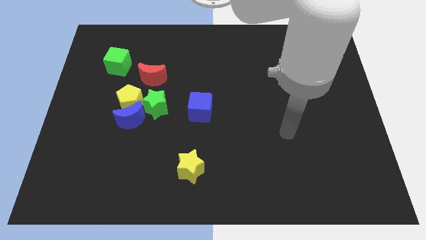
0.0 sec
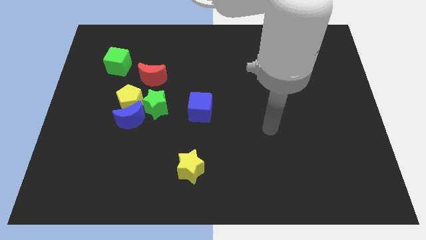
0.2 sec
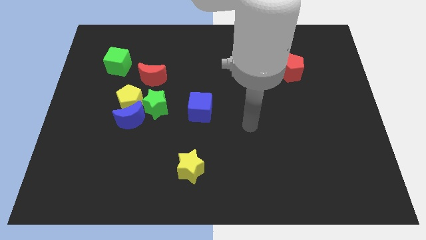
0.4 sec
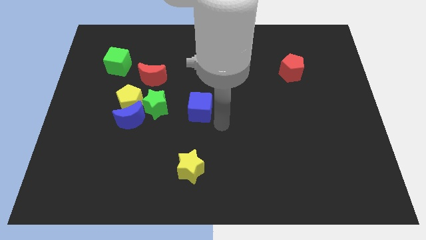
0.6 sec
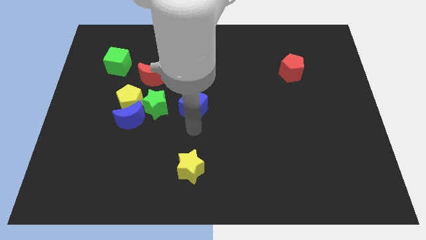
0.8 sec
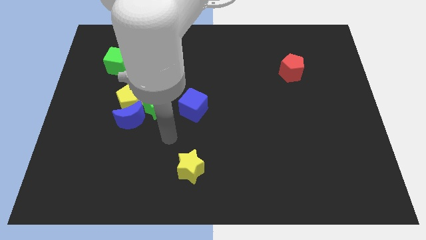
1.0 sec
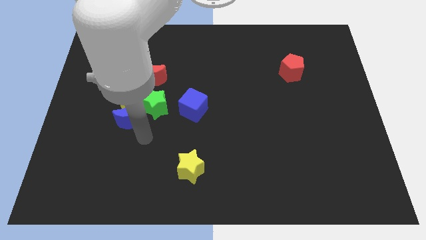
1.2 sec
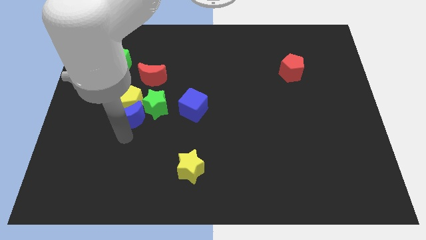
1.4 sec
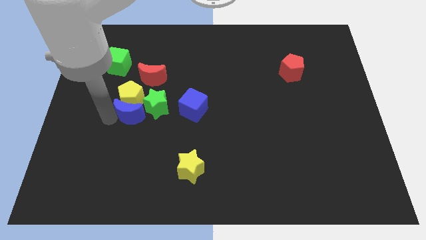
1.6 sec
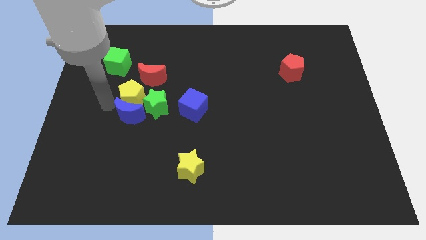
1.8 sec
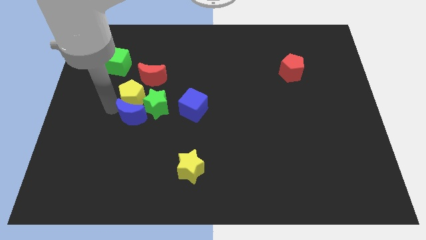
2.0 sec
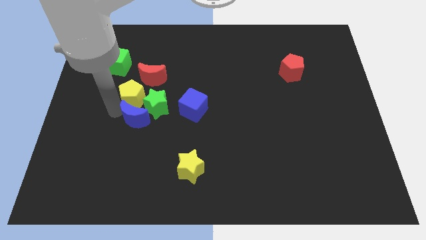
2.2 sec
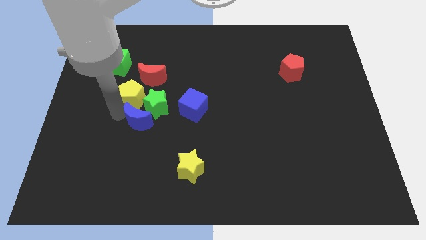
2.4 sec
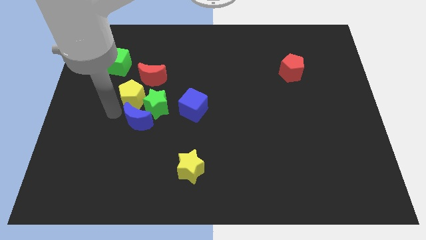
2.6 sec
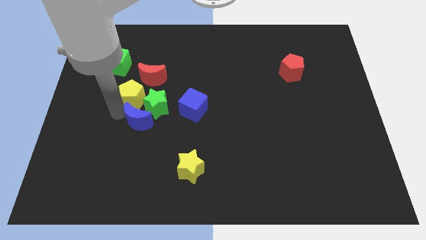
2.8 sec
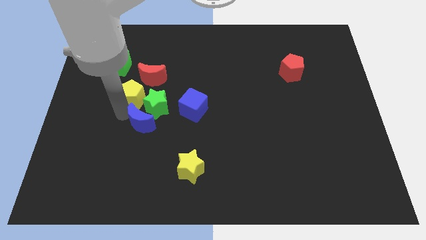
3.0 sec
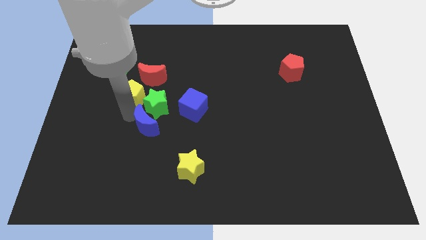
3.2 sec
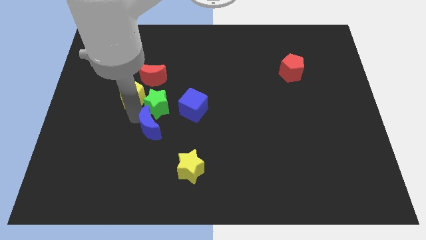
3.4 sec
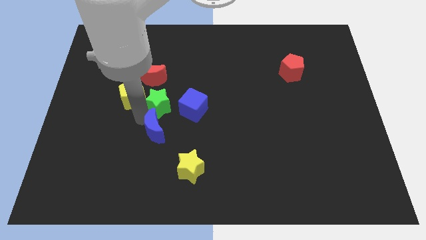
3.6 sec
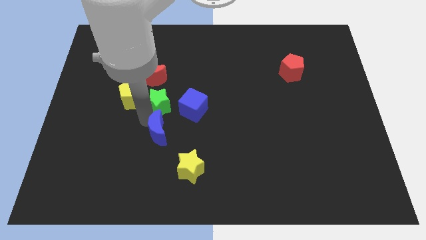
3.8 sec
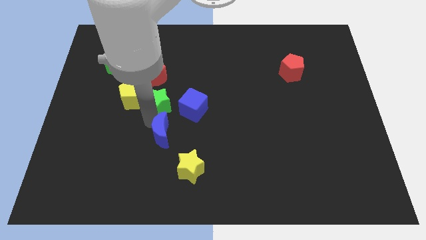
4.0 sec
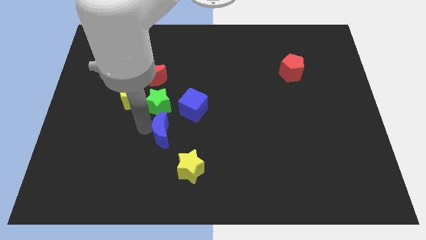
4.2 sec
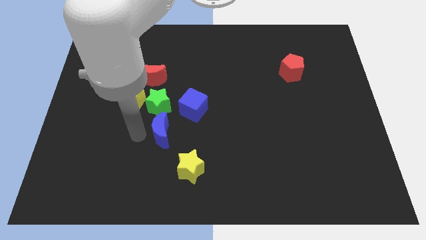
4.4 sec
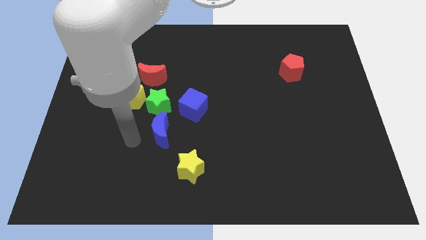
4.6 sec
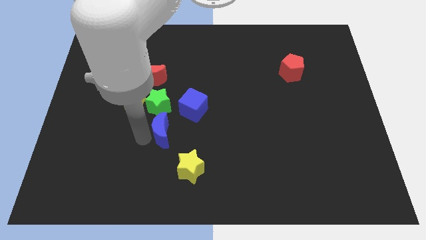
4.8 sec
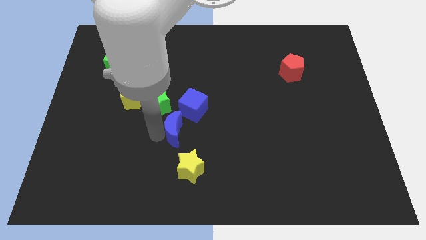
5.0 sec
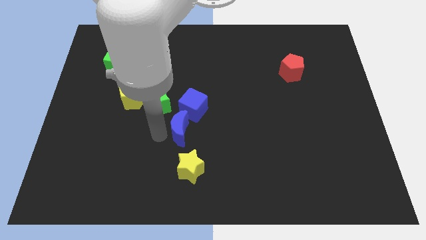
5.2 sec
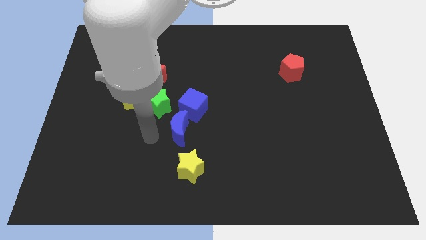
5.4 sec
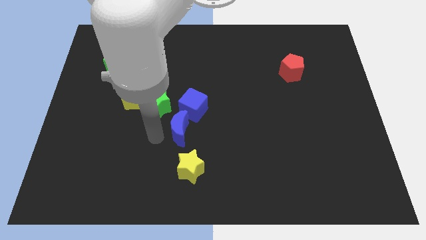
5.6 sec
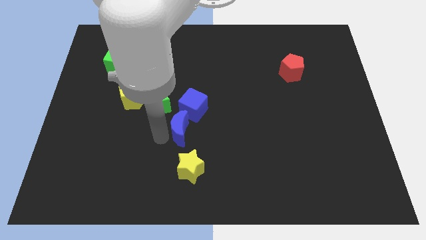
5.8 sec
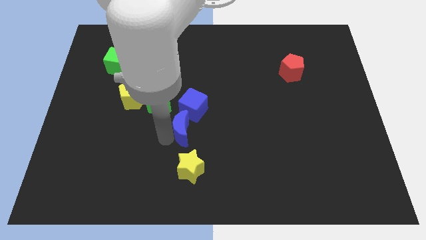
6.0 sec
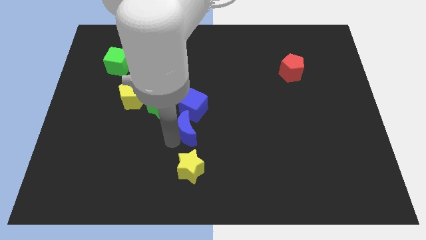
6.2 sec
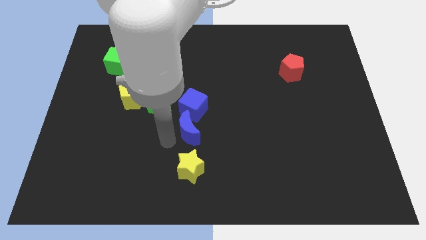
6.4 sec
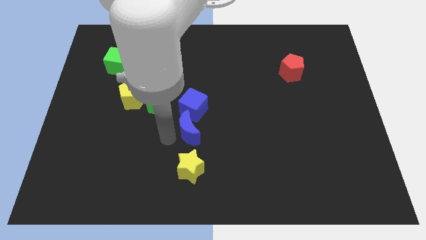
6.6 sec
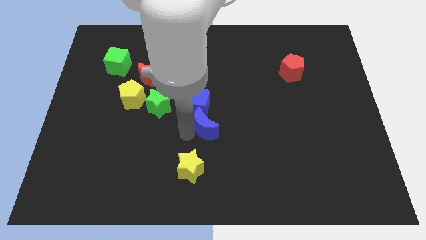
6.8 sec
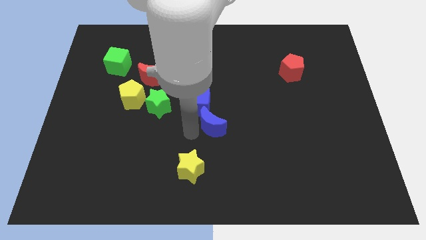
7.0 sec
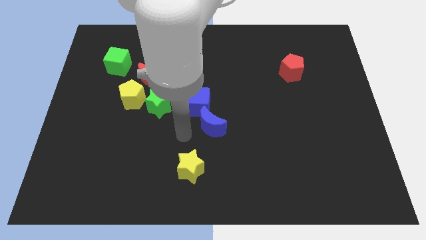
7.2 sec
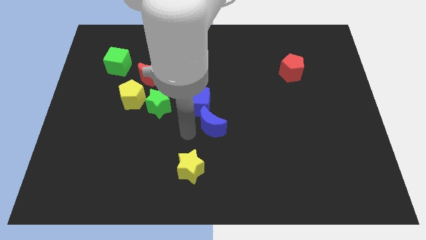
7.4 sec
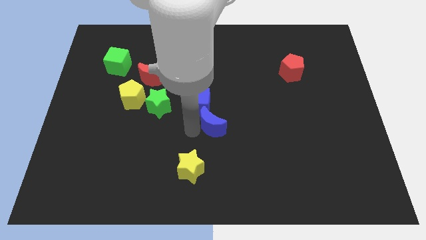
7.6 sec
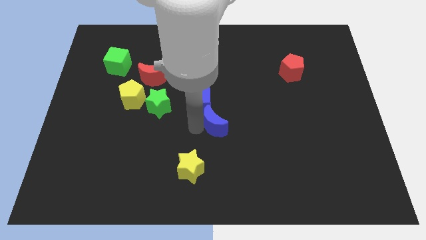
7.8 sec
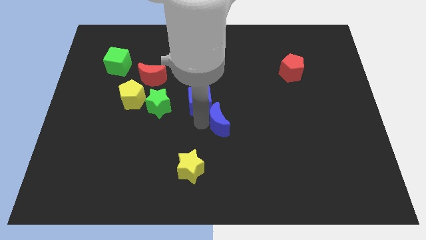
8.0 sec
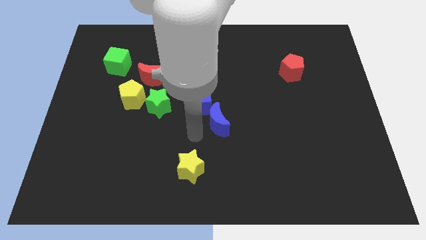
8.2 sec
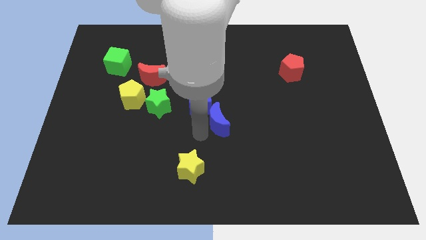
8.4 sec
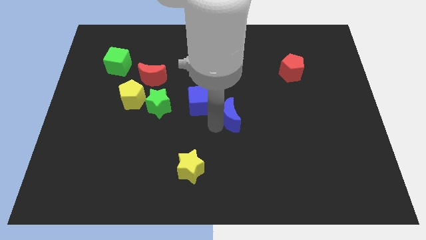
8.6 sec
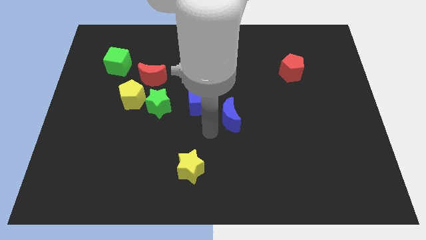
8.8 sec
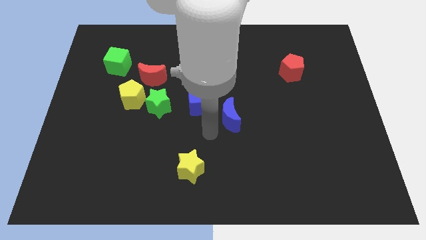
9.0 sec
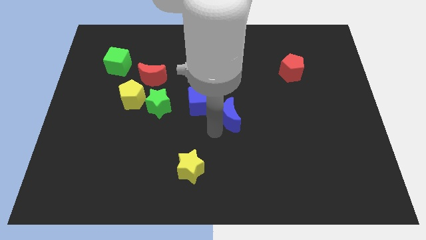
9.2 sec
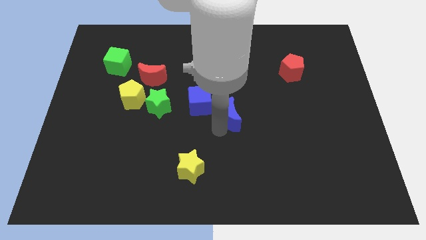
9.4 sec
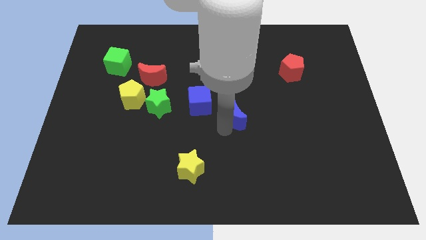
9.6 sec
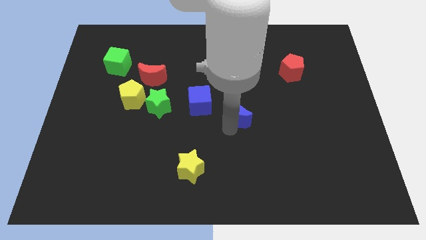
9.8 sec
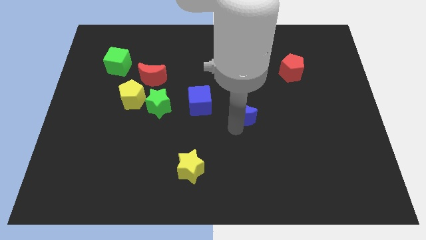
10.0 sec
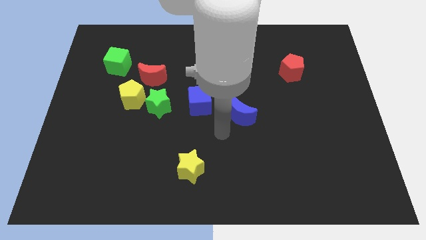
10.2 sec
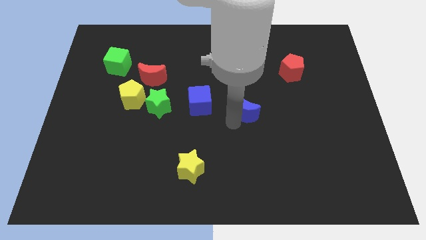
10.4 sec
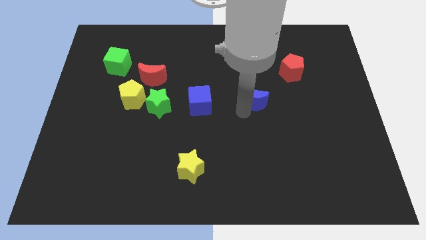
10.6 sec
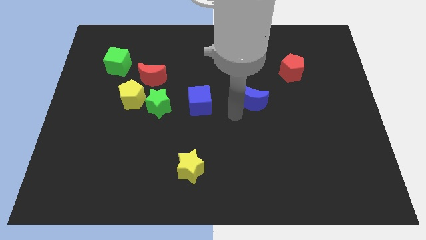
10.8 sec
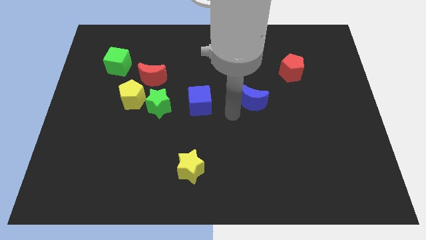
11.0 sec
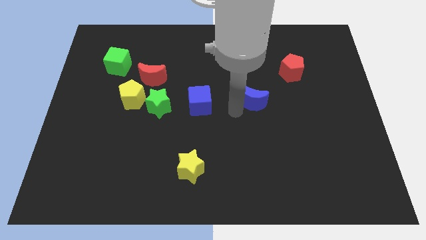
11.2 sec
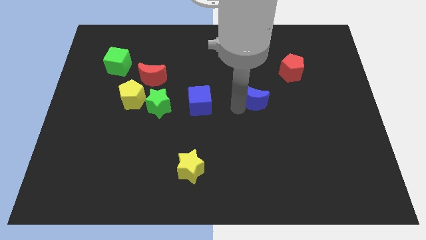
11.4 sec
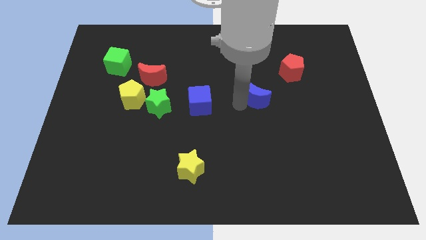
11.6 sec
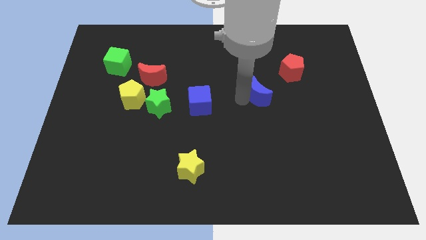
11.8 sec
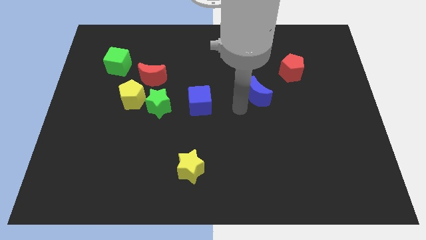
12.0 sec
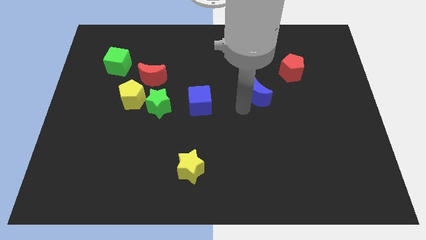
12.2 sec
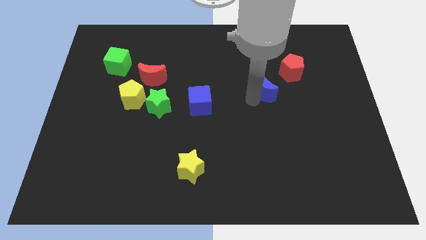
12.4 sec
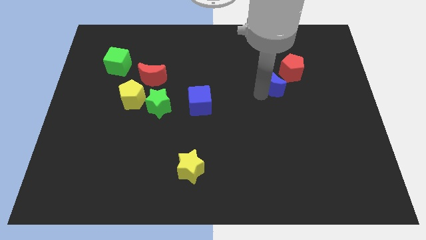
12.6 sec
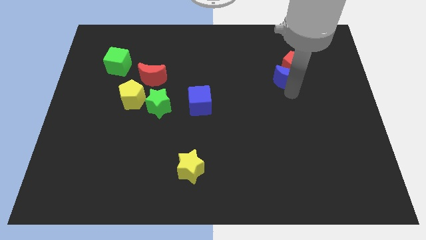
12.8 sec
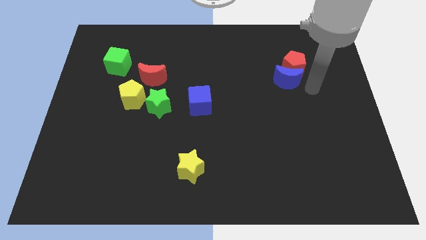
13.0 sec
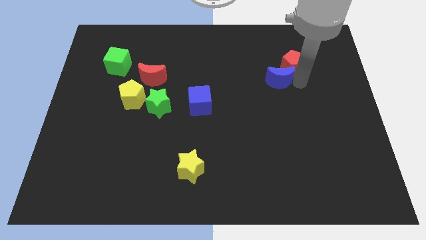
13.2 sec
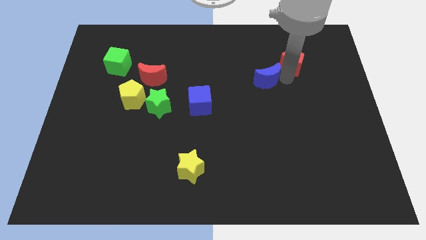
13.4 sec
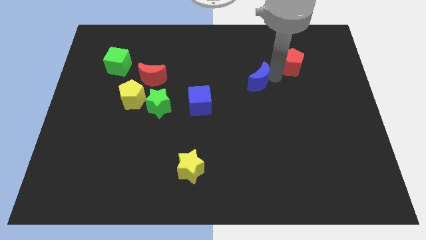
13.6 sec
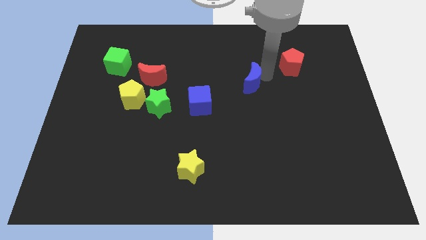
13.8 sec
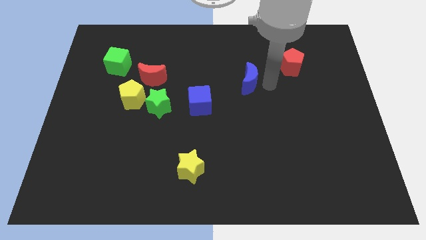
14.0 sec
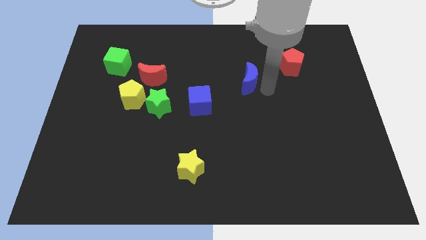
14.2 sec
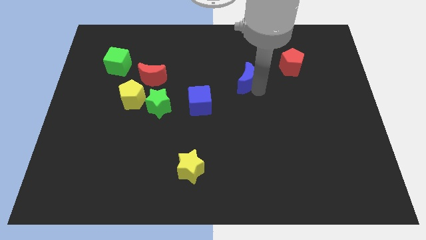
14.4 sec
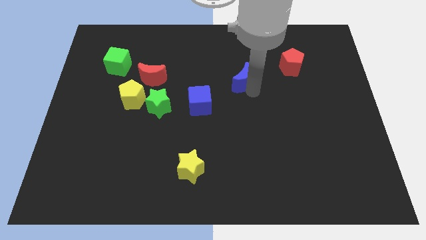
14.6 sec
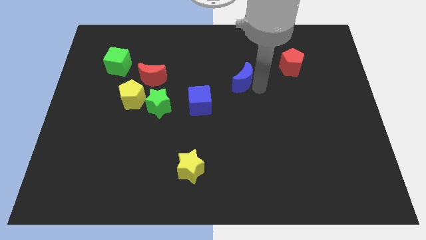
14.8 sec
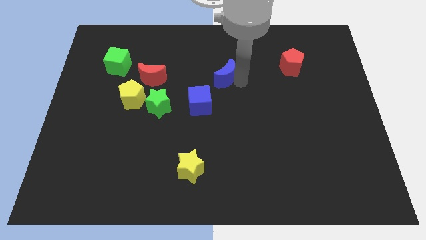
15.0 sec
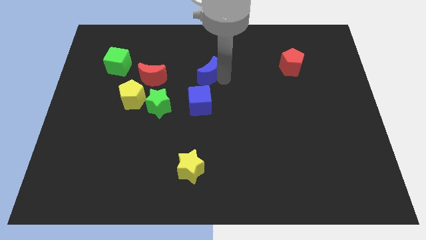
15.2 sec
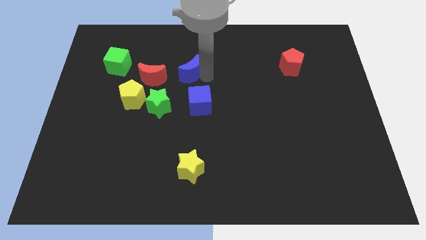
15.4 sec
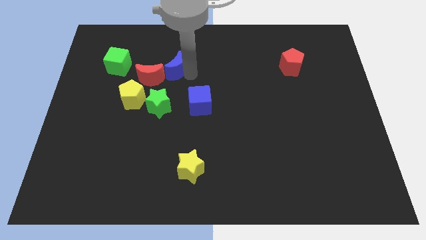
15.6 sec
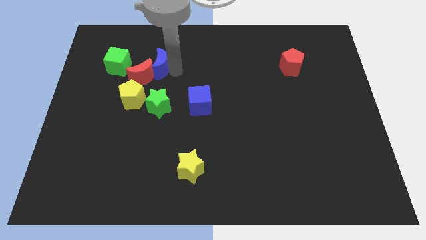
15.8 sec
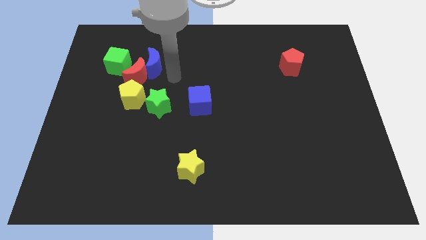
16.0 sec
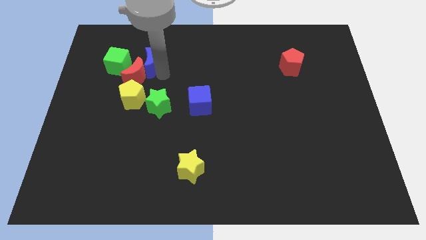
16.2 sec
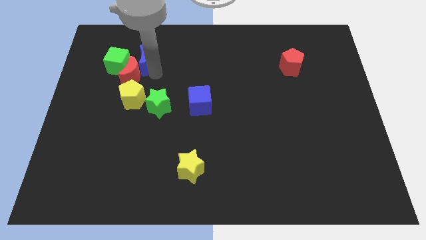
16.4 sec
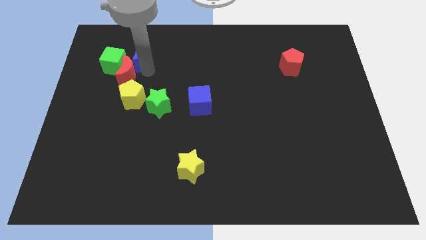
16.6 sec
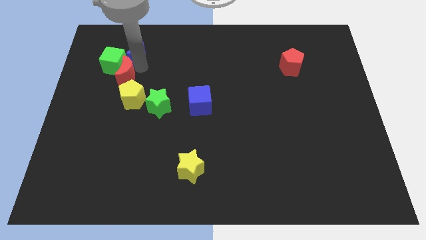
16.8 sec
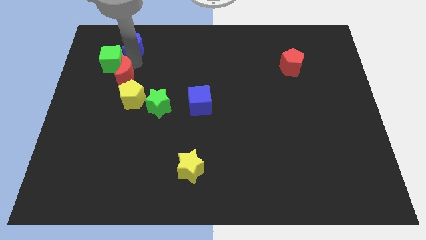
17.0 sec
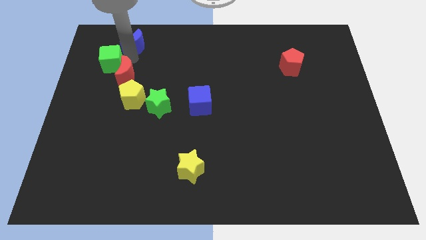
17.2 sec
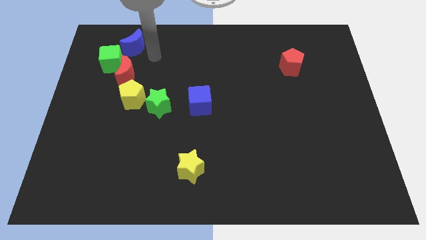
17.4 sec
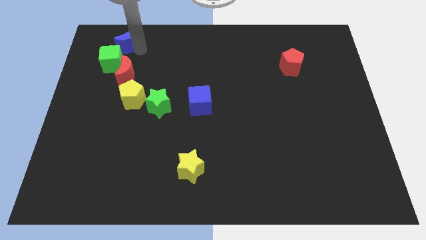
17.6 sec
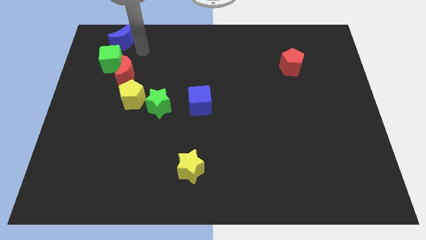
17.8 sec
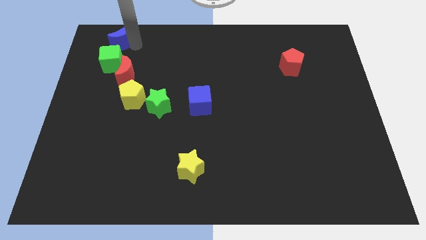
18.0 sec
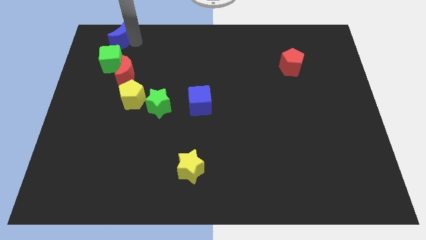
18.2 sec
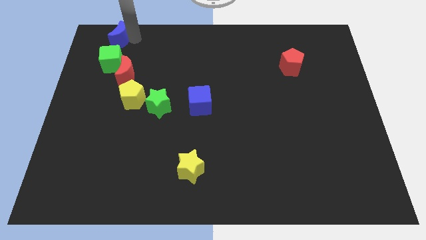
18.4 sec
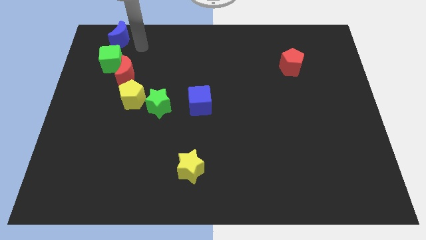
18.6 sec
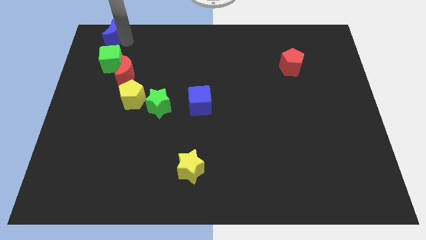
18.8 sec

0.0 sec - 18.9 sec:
put the blue moon to the top left of the board
